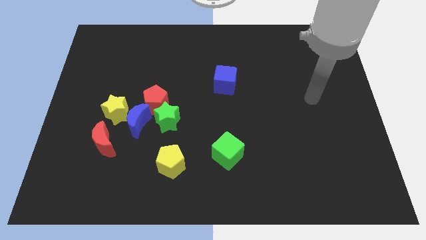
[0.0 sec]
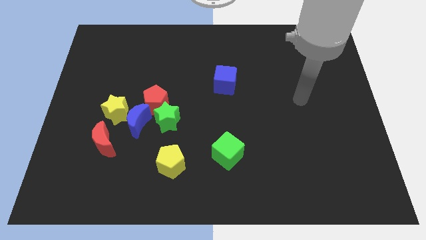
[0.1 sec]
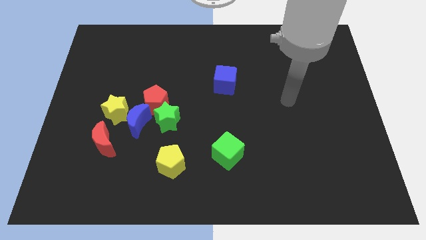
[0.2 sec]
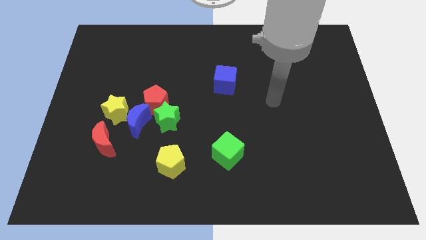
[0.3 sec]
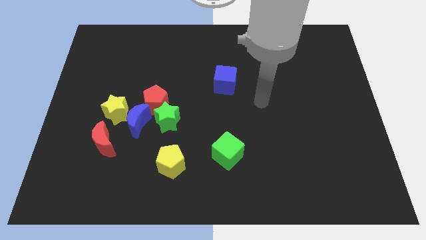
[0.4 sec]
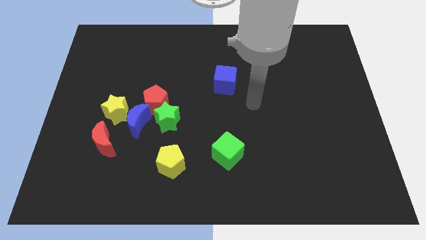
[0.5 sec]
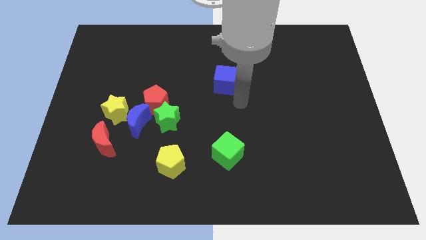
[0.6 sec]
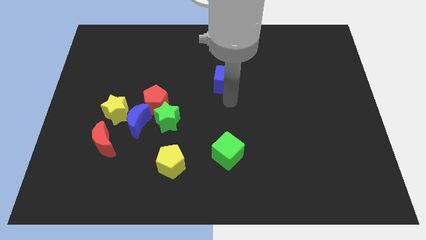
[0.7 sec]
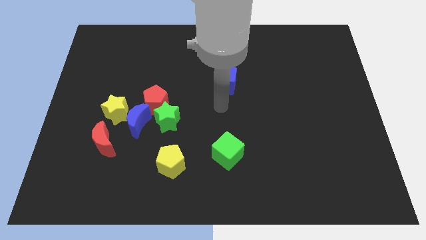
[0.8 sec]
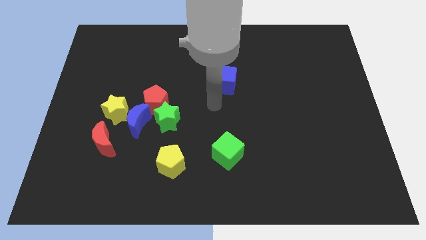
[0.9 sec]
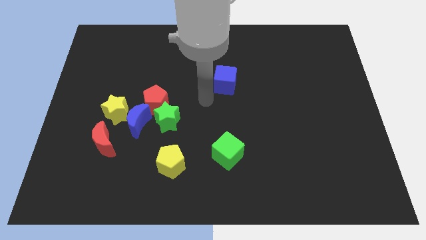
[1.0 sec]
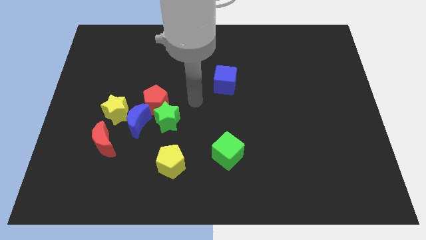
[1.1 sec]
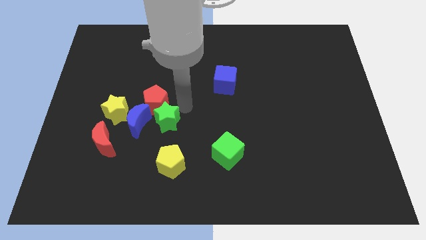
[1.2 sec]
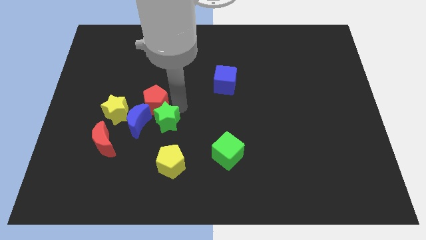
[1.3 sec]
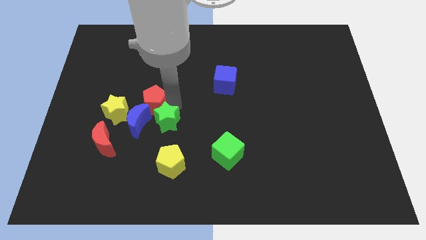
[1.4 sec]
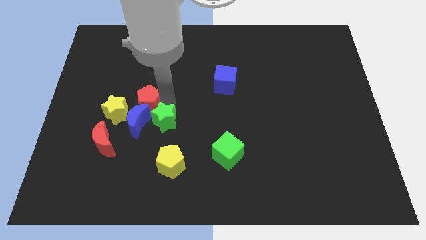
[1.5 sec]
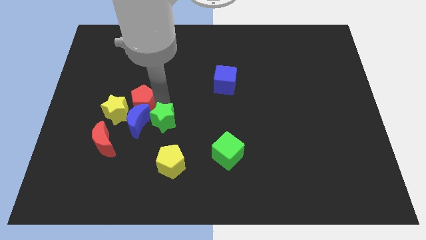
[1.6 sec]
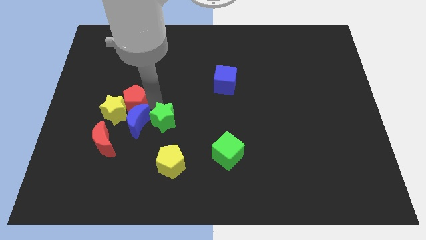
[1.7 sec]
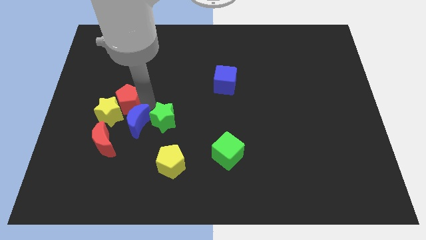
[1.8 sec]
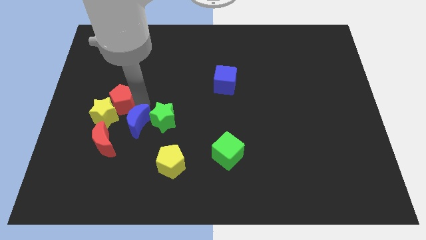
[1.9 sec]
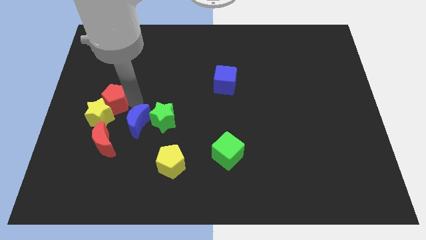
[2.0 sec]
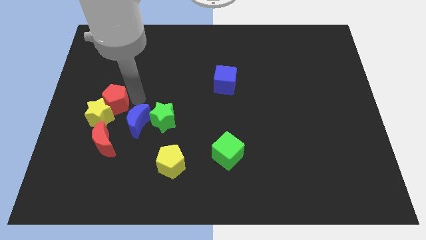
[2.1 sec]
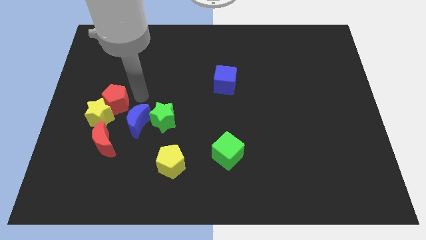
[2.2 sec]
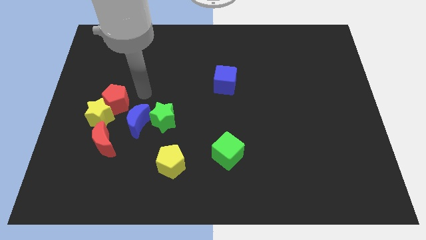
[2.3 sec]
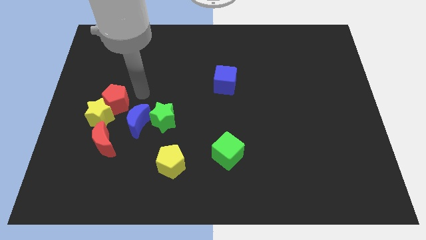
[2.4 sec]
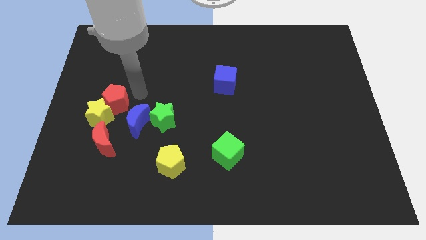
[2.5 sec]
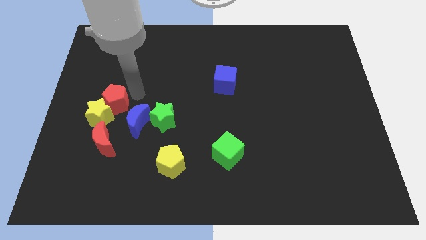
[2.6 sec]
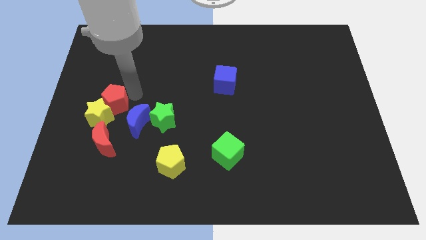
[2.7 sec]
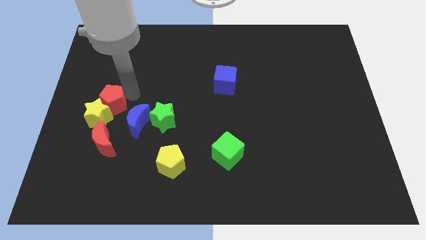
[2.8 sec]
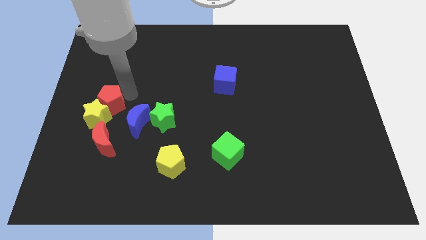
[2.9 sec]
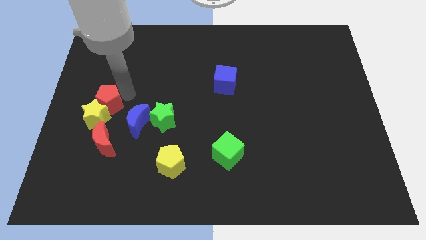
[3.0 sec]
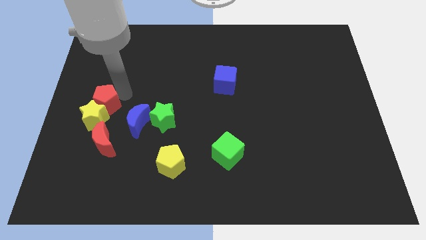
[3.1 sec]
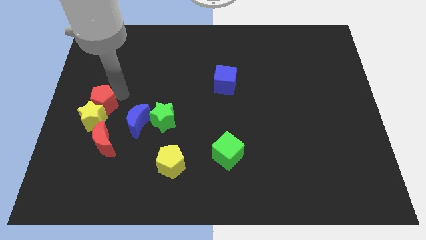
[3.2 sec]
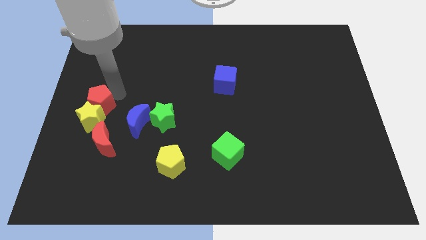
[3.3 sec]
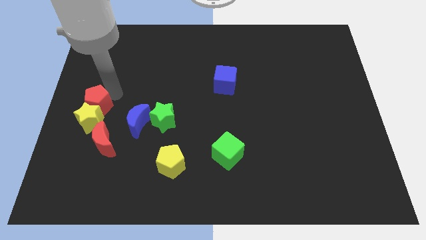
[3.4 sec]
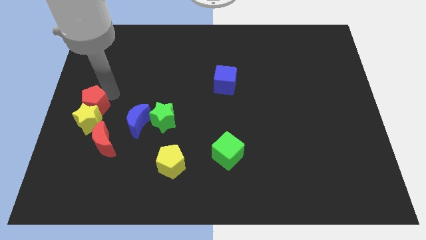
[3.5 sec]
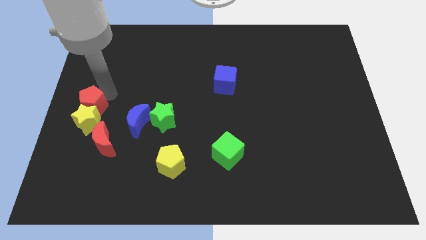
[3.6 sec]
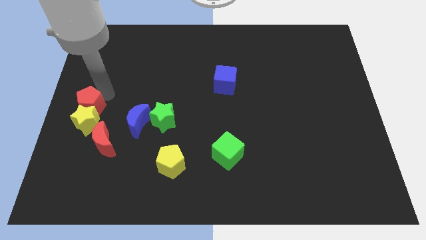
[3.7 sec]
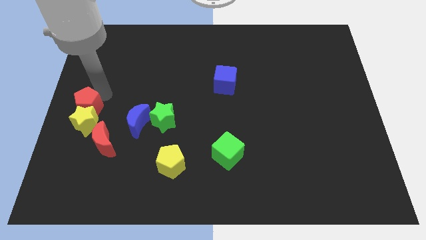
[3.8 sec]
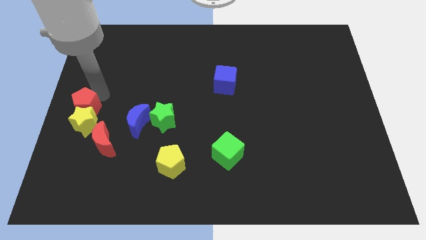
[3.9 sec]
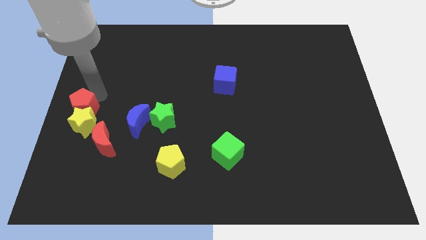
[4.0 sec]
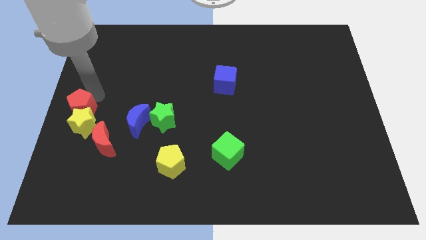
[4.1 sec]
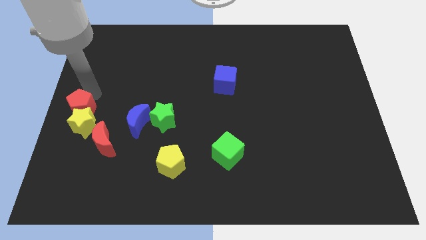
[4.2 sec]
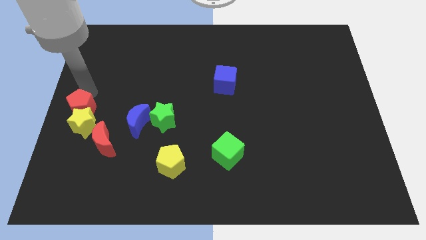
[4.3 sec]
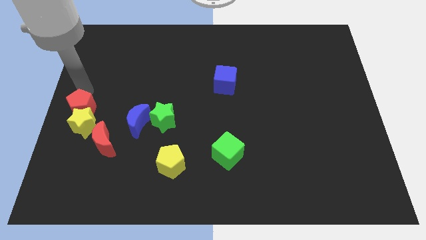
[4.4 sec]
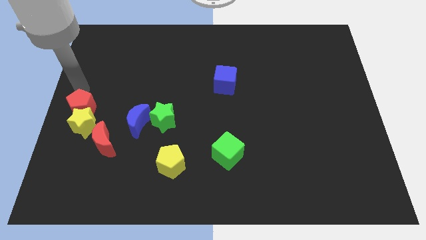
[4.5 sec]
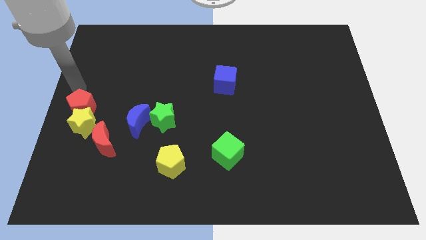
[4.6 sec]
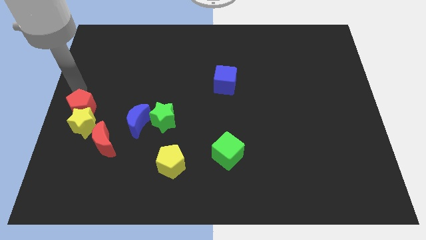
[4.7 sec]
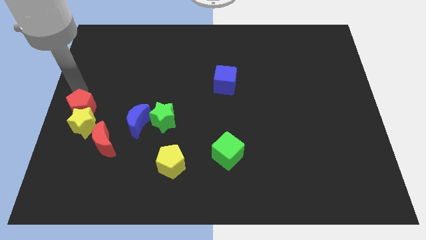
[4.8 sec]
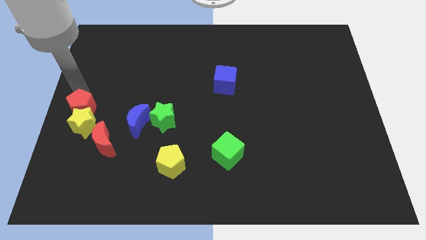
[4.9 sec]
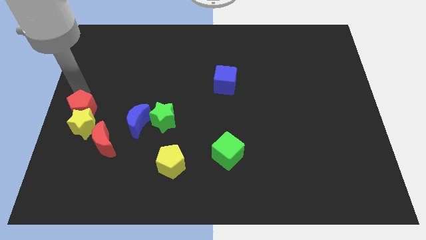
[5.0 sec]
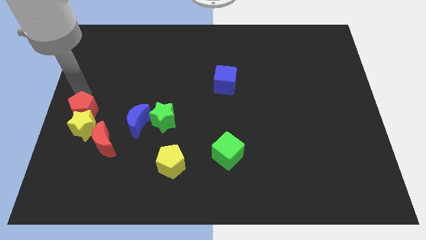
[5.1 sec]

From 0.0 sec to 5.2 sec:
push the red pentagon down and then to the left a little bit

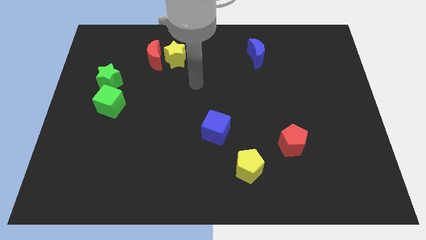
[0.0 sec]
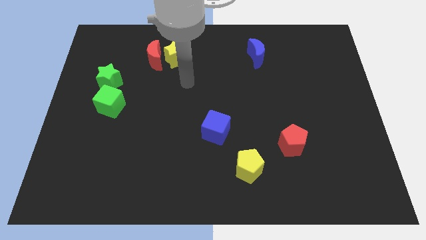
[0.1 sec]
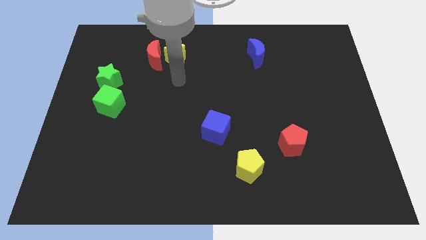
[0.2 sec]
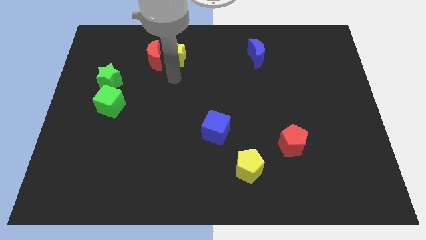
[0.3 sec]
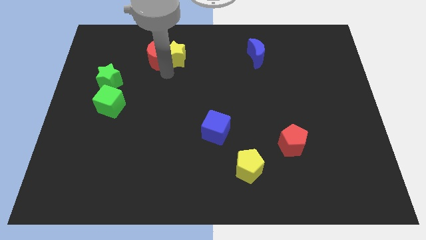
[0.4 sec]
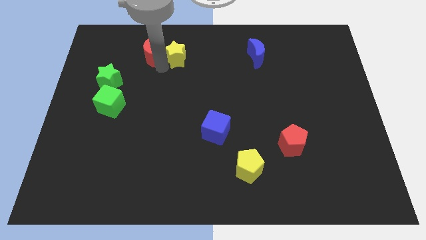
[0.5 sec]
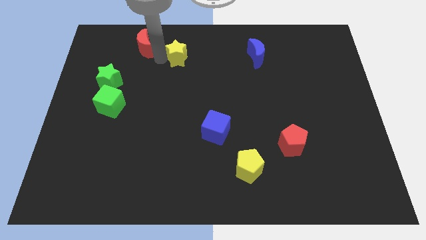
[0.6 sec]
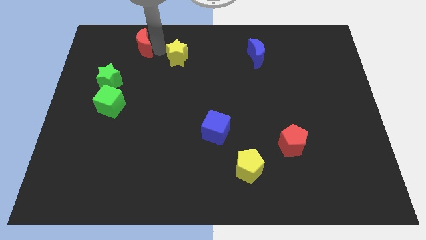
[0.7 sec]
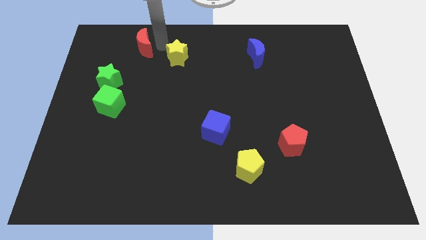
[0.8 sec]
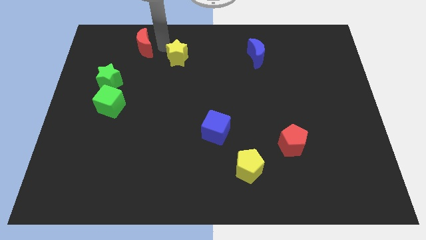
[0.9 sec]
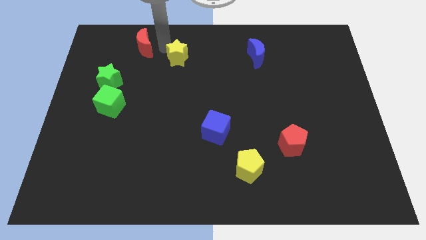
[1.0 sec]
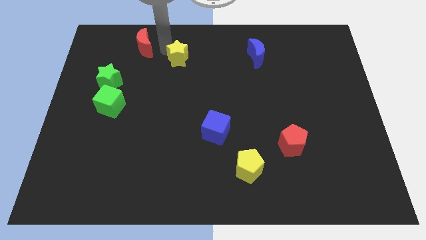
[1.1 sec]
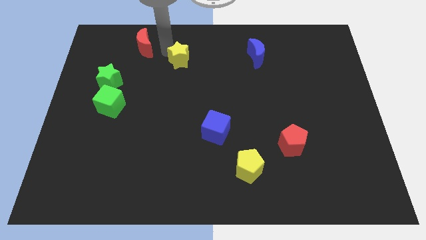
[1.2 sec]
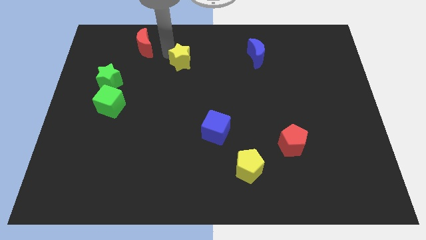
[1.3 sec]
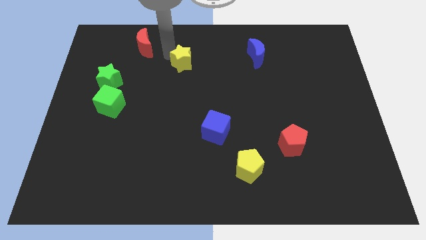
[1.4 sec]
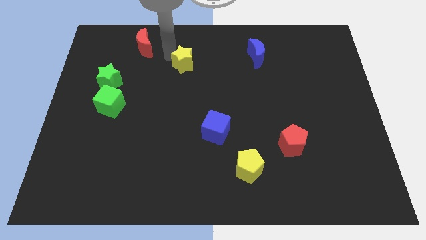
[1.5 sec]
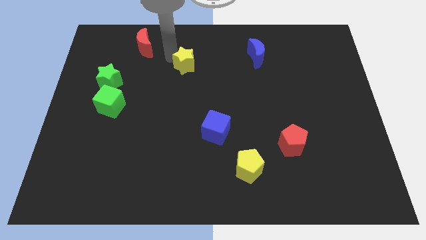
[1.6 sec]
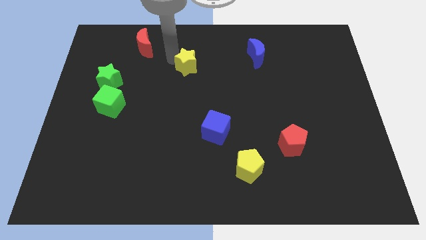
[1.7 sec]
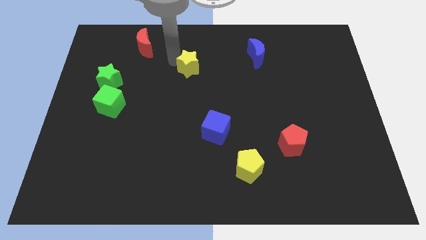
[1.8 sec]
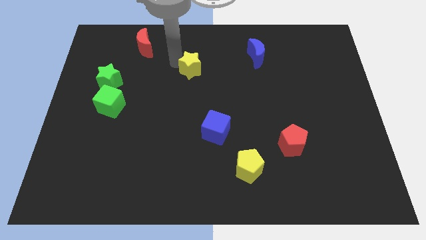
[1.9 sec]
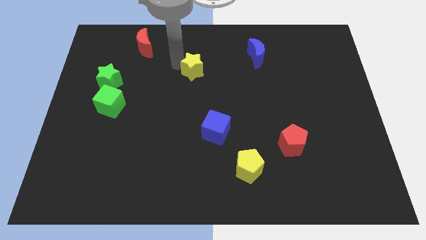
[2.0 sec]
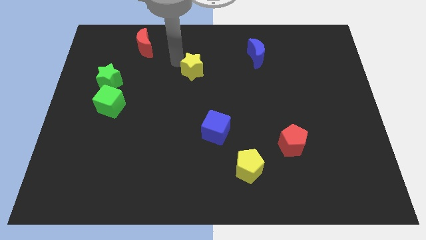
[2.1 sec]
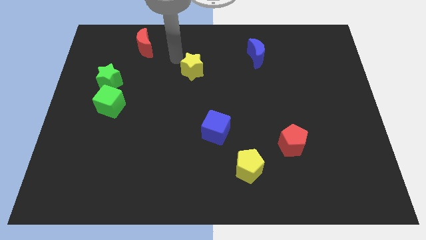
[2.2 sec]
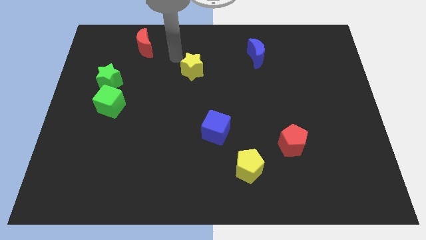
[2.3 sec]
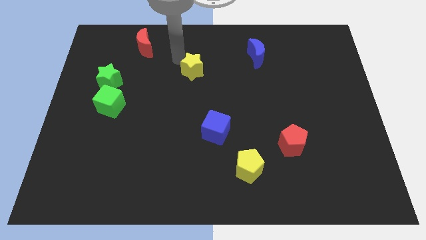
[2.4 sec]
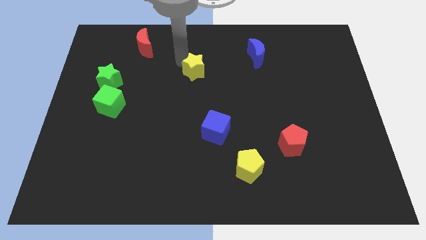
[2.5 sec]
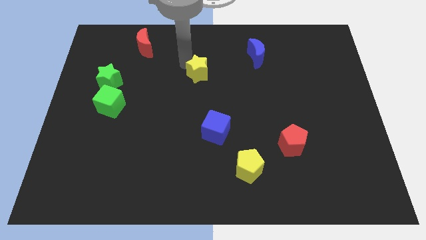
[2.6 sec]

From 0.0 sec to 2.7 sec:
slightly push the yellow star downwards and to the right
